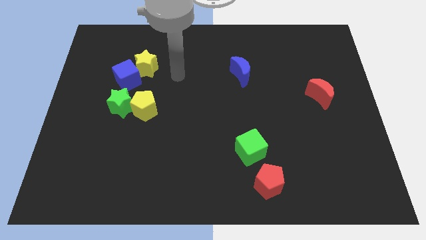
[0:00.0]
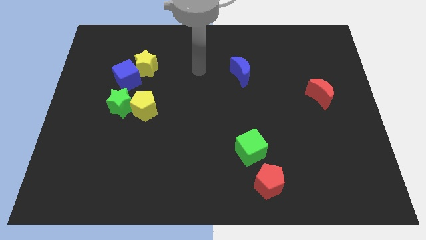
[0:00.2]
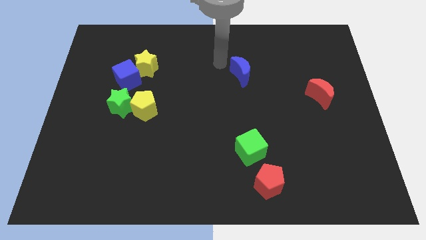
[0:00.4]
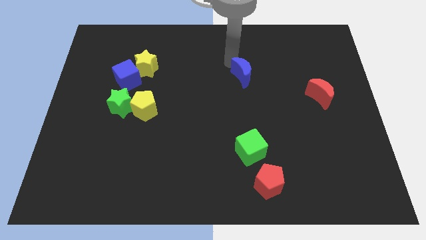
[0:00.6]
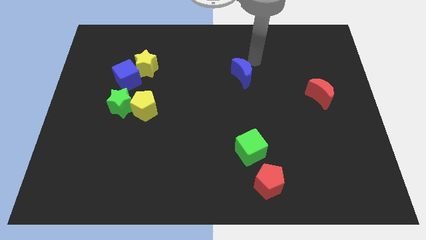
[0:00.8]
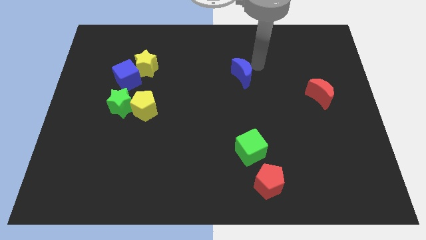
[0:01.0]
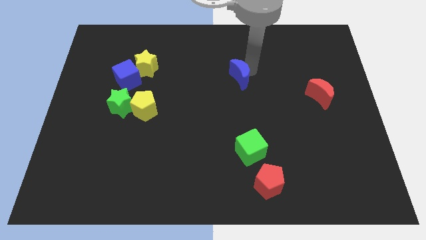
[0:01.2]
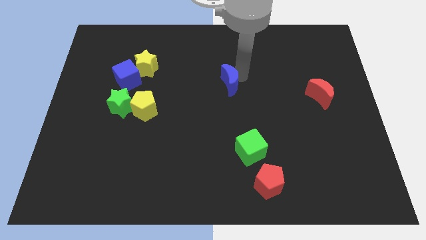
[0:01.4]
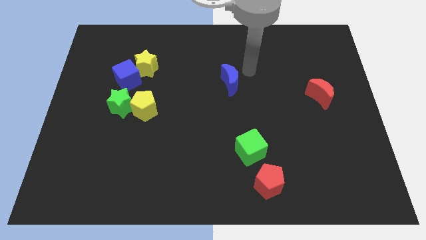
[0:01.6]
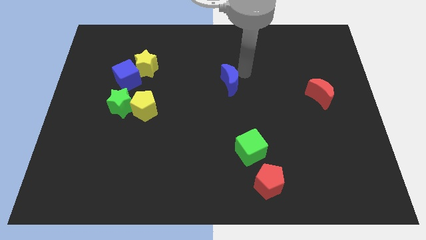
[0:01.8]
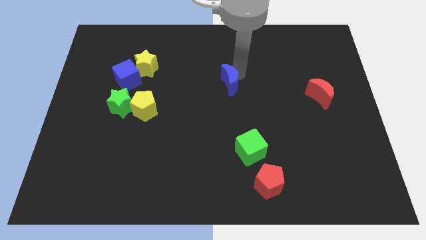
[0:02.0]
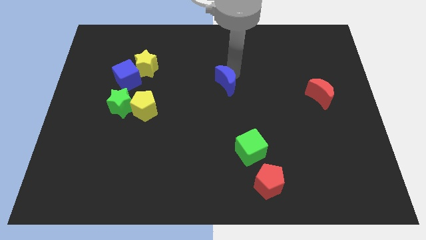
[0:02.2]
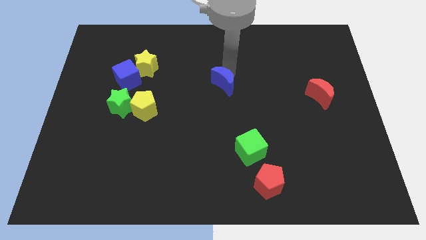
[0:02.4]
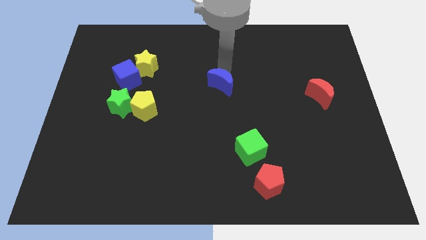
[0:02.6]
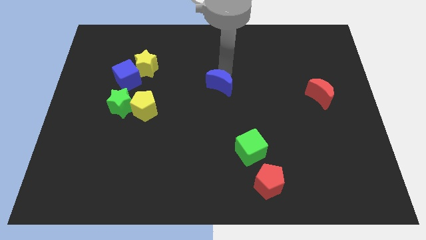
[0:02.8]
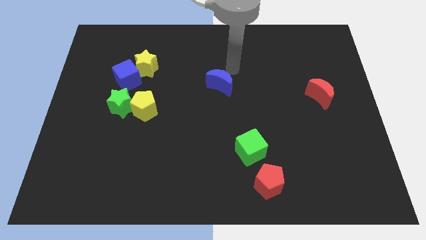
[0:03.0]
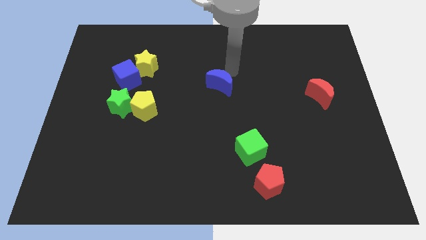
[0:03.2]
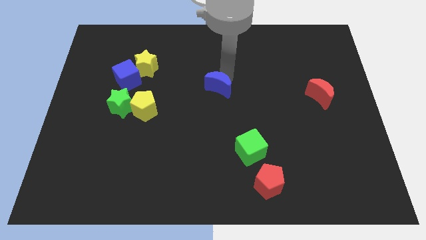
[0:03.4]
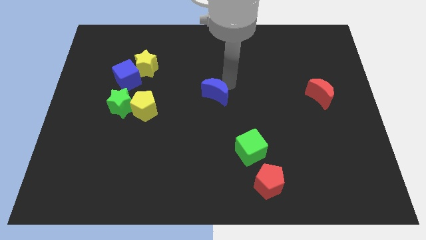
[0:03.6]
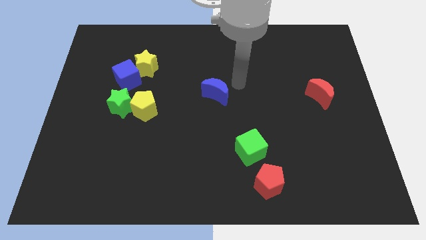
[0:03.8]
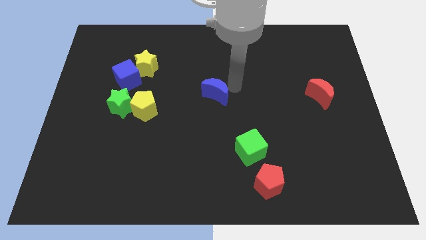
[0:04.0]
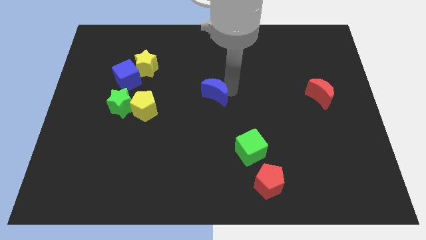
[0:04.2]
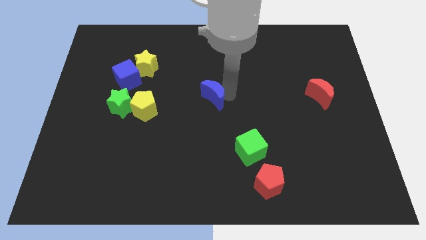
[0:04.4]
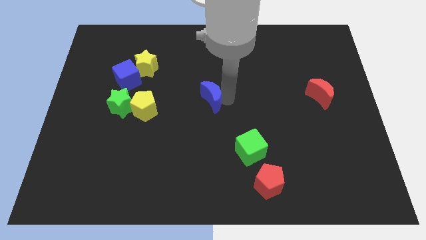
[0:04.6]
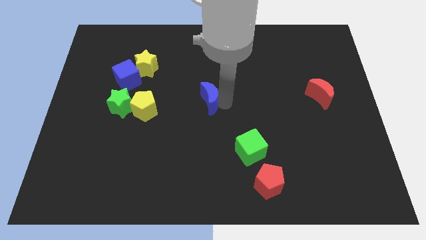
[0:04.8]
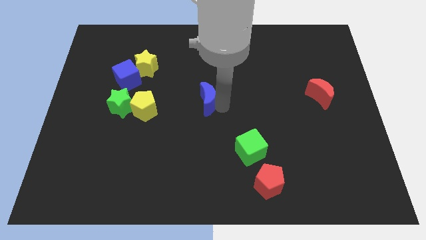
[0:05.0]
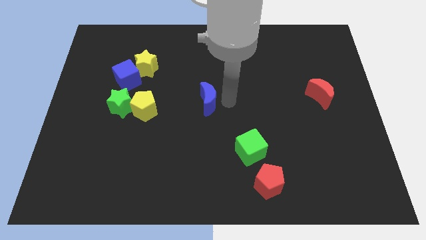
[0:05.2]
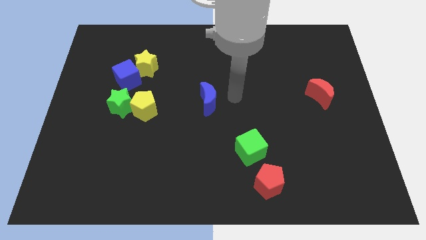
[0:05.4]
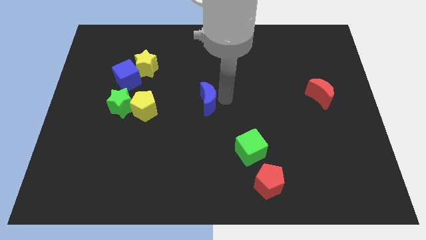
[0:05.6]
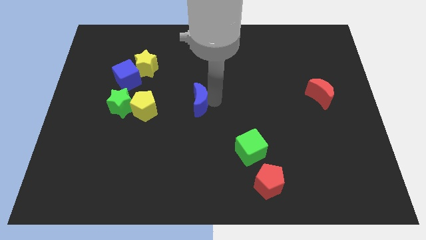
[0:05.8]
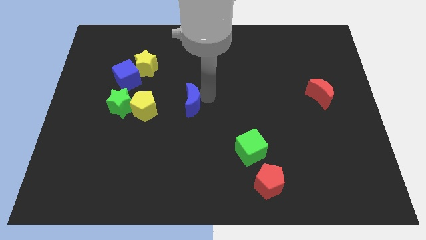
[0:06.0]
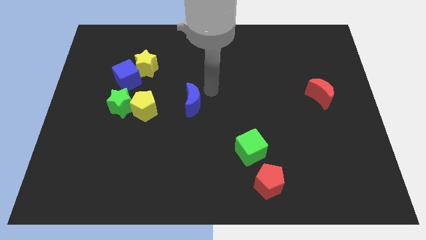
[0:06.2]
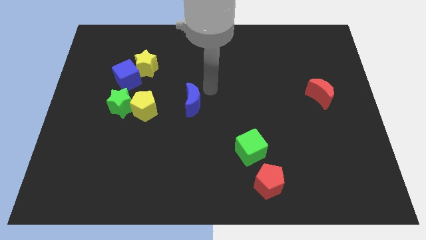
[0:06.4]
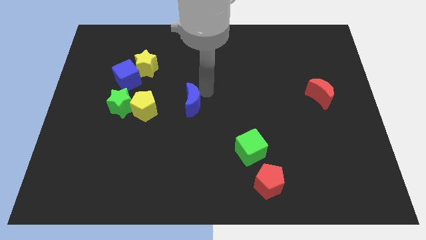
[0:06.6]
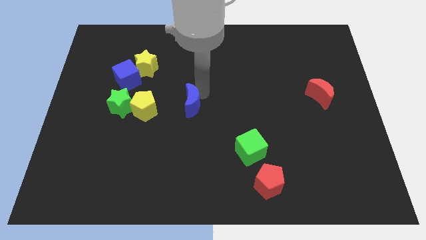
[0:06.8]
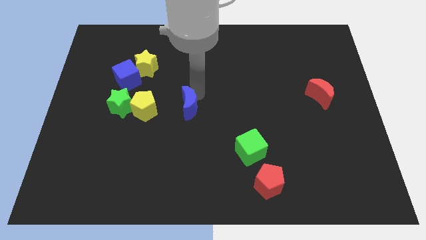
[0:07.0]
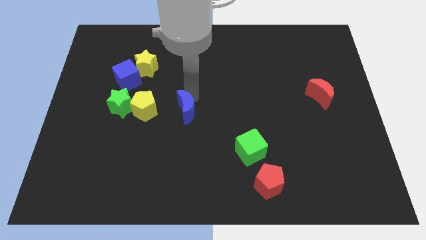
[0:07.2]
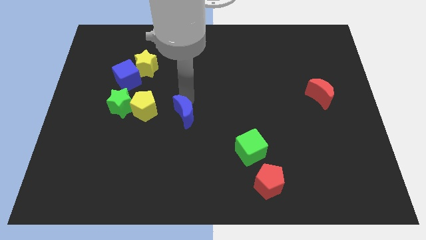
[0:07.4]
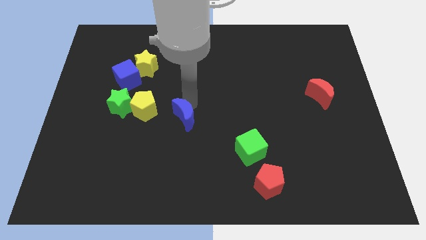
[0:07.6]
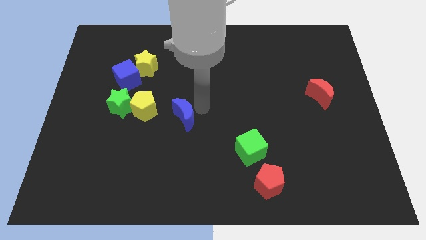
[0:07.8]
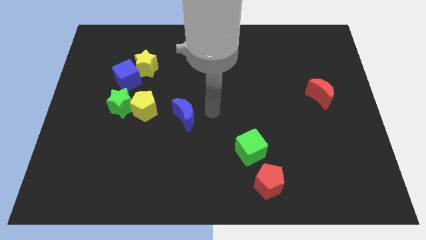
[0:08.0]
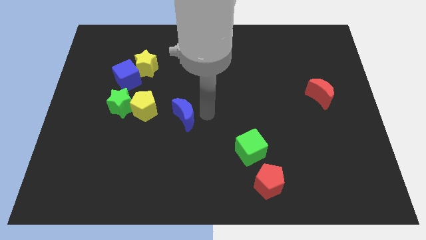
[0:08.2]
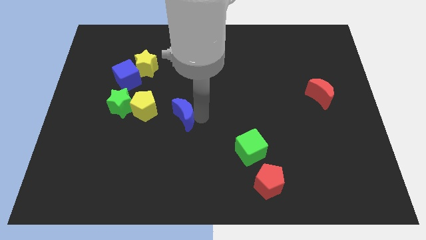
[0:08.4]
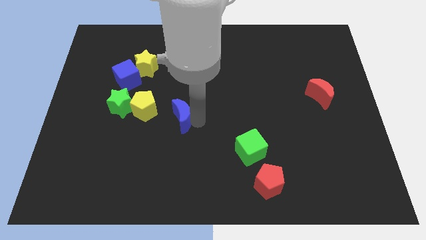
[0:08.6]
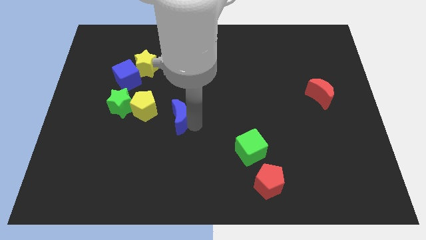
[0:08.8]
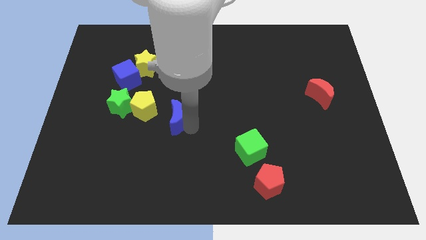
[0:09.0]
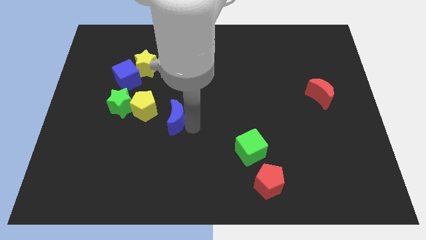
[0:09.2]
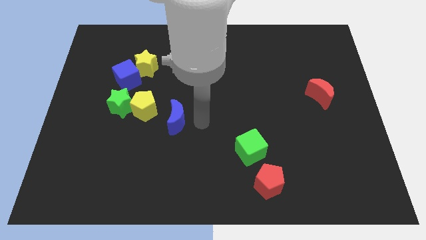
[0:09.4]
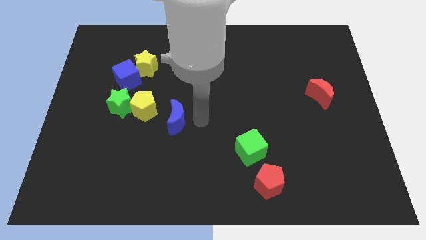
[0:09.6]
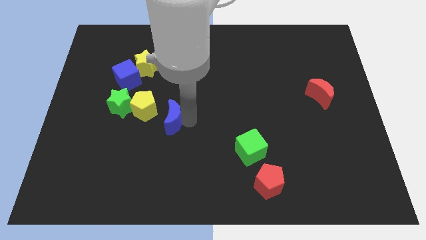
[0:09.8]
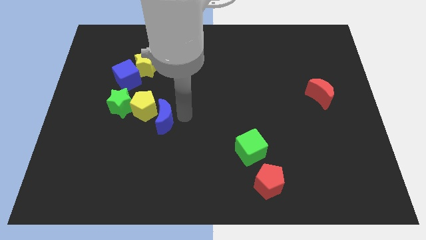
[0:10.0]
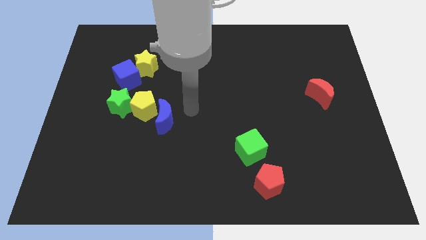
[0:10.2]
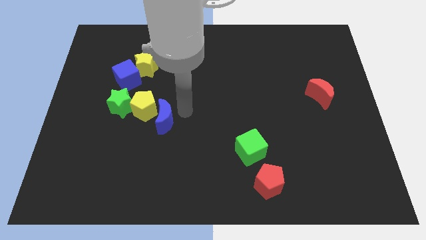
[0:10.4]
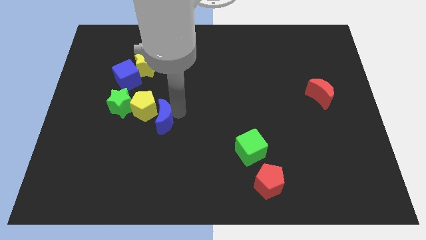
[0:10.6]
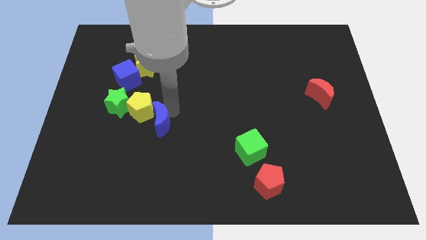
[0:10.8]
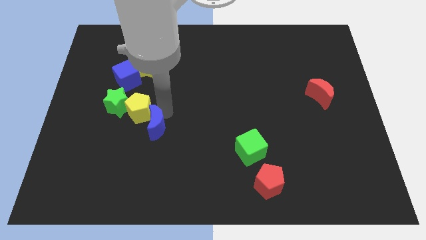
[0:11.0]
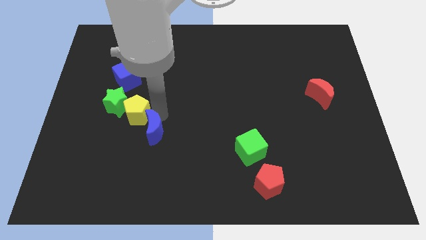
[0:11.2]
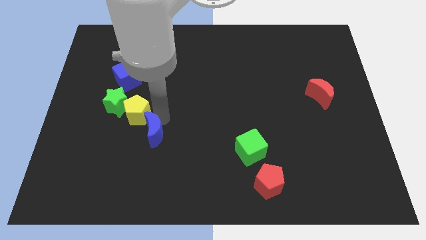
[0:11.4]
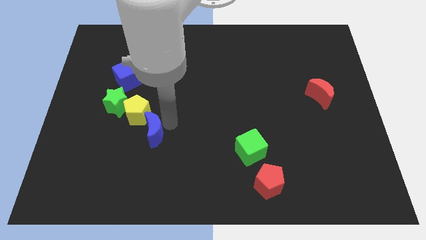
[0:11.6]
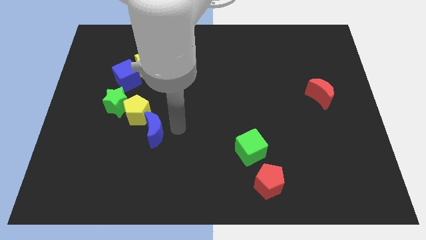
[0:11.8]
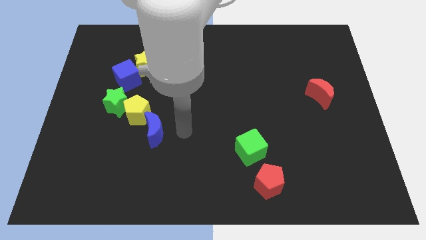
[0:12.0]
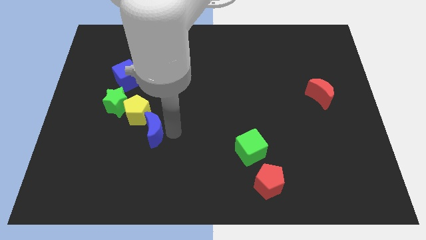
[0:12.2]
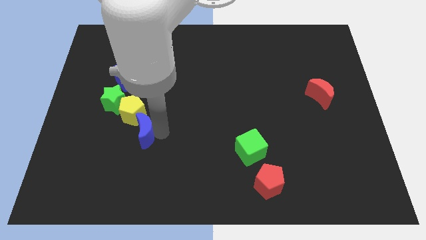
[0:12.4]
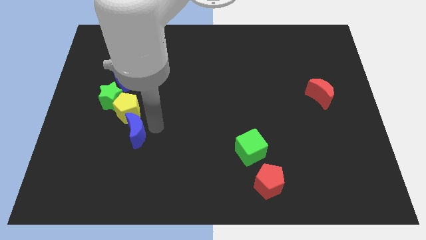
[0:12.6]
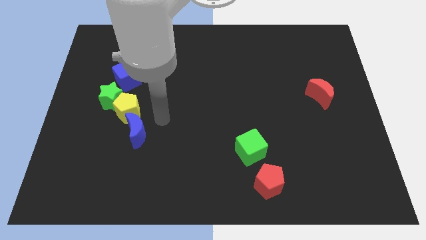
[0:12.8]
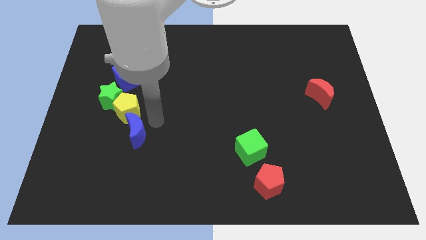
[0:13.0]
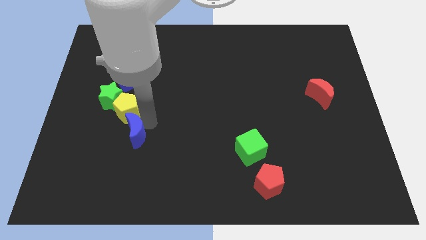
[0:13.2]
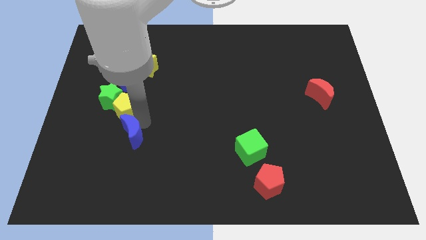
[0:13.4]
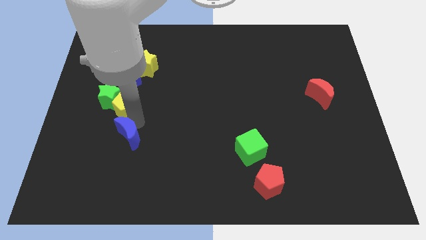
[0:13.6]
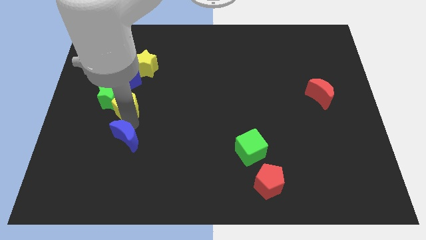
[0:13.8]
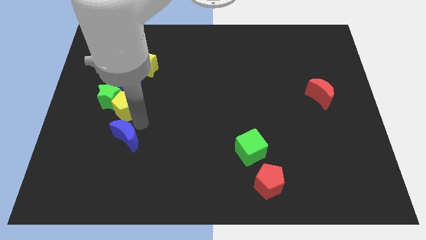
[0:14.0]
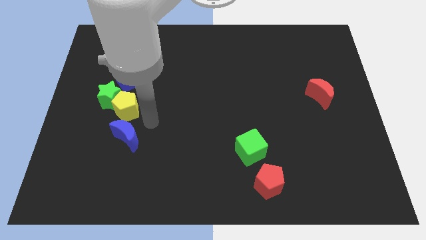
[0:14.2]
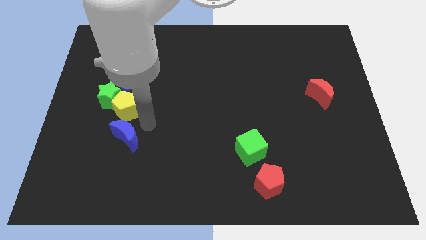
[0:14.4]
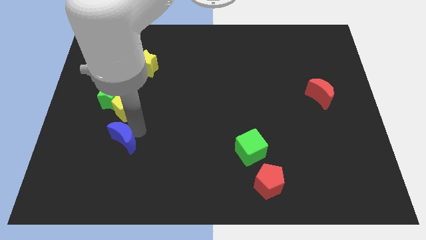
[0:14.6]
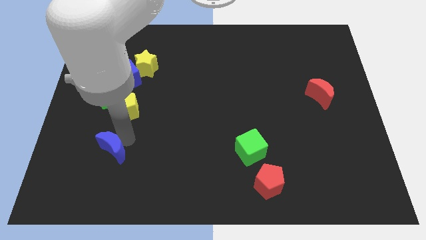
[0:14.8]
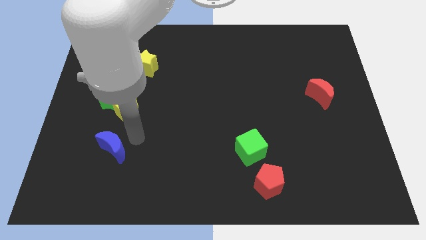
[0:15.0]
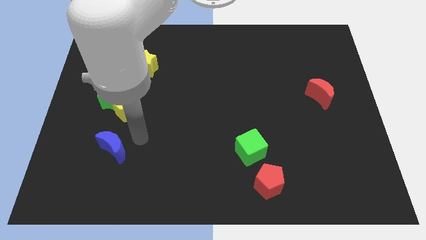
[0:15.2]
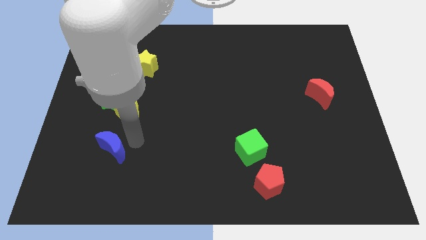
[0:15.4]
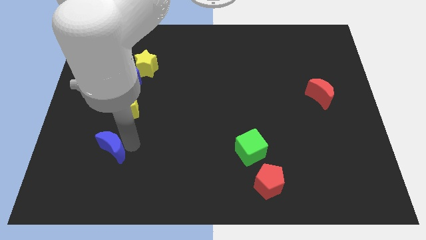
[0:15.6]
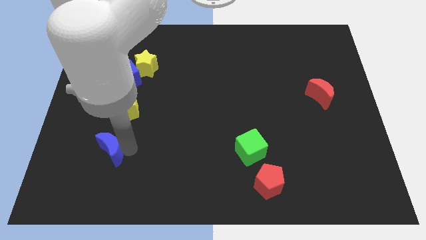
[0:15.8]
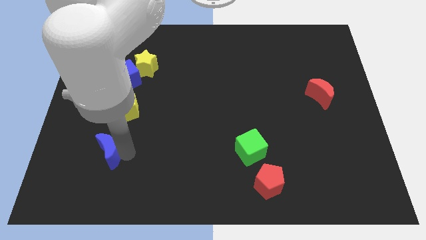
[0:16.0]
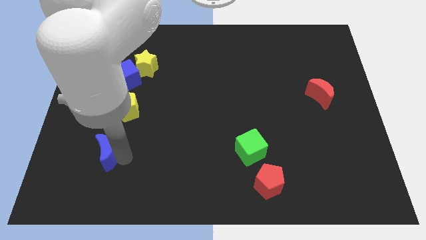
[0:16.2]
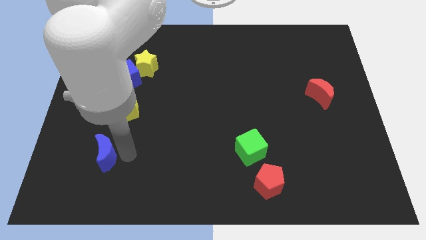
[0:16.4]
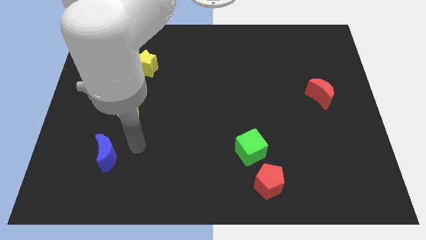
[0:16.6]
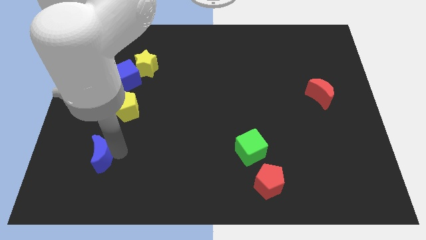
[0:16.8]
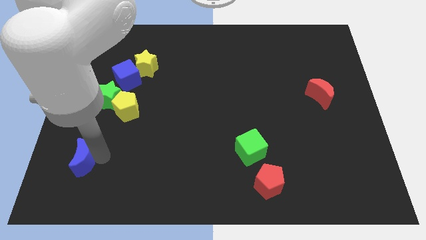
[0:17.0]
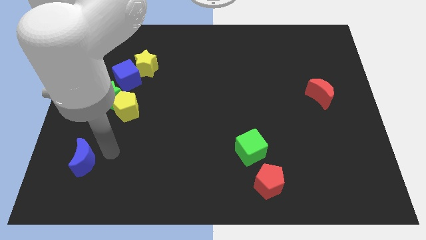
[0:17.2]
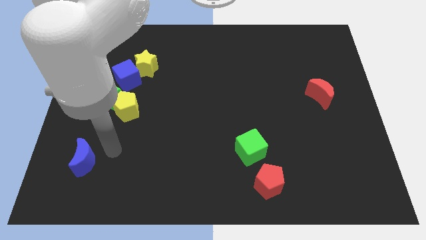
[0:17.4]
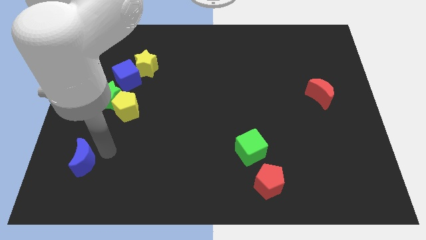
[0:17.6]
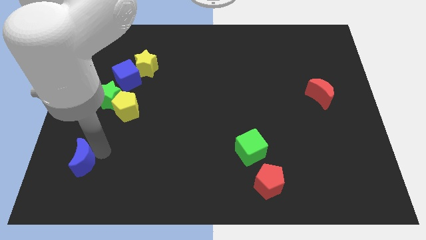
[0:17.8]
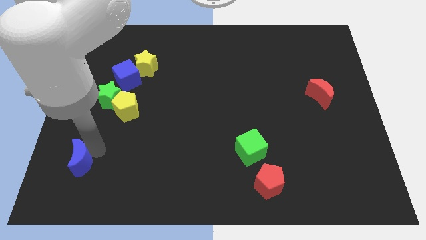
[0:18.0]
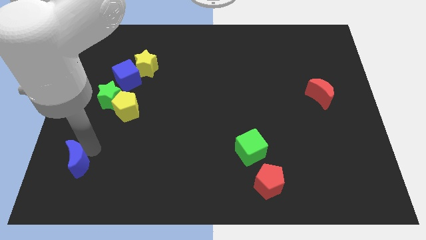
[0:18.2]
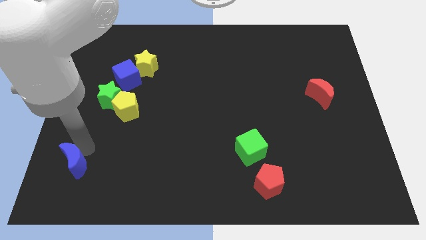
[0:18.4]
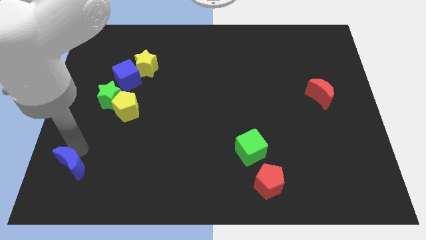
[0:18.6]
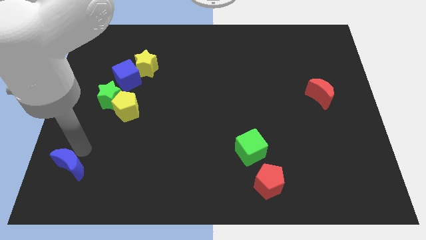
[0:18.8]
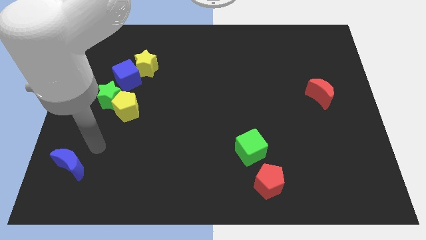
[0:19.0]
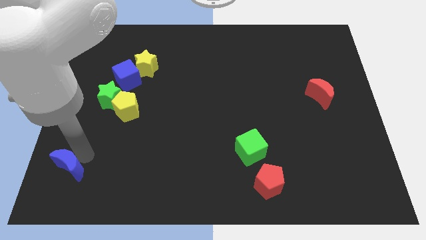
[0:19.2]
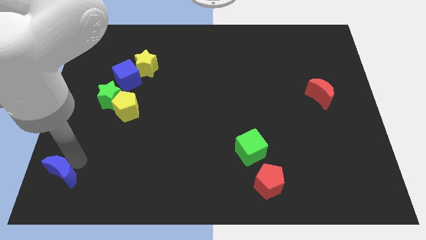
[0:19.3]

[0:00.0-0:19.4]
slide the blue moon to the lower left corner
